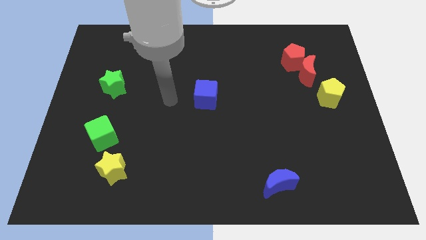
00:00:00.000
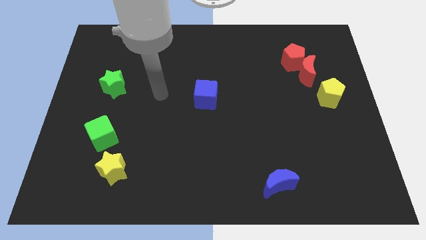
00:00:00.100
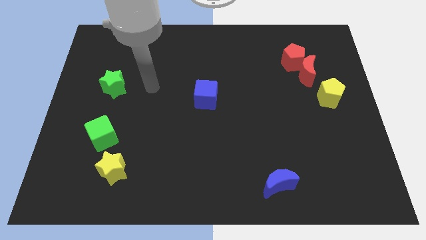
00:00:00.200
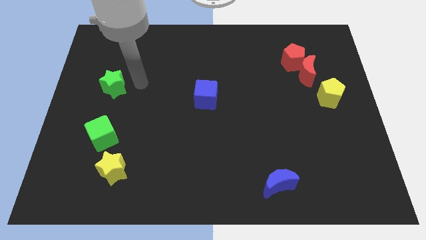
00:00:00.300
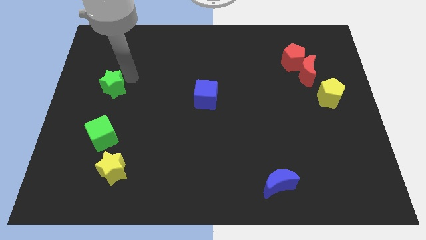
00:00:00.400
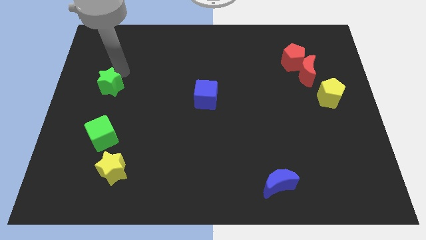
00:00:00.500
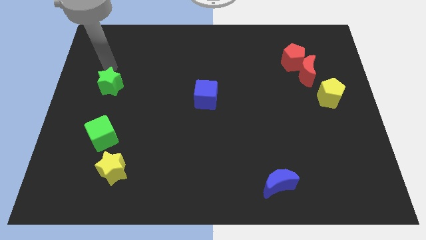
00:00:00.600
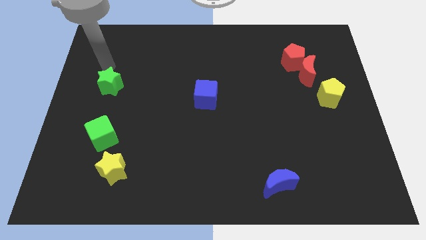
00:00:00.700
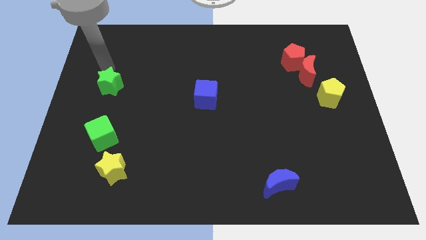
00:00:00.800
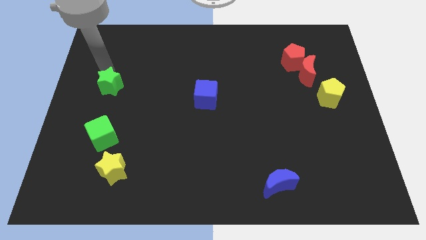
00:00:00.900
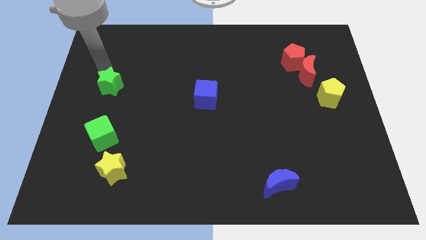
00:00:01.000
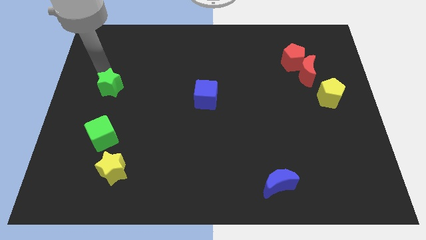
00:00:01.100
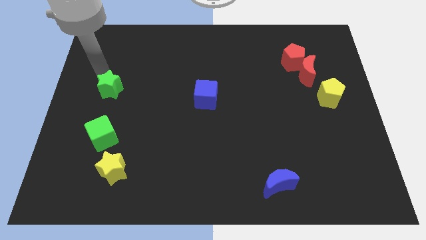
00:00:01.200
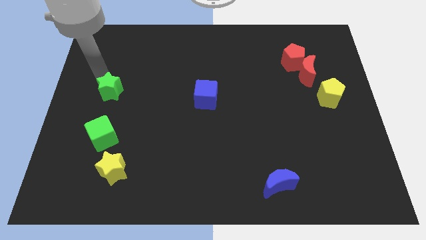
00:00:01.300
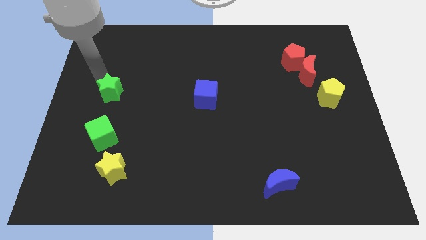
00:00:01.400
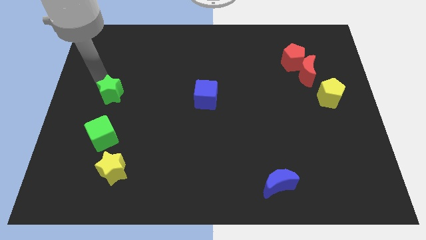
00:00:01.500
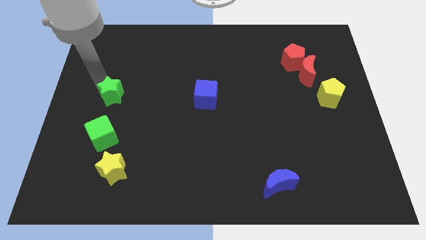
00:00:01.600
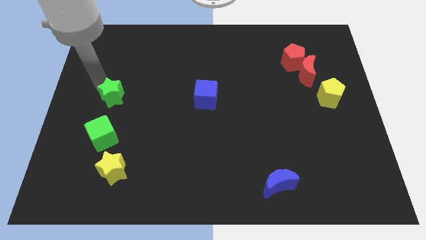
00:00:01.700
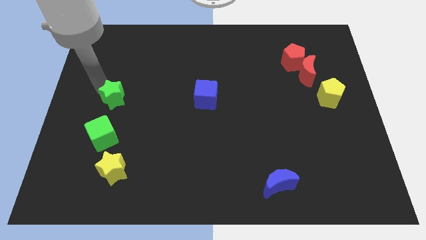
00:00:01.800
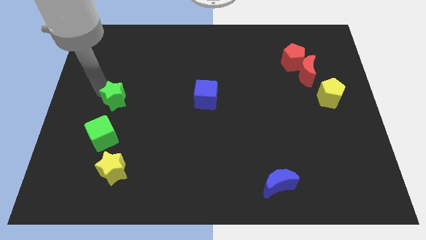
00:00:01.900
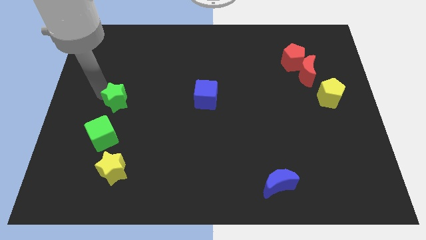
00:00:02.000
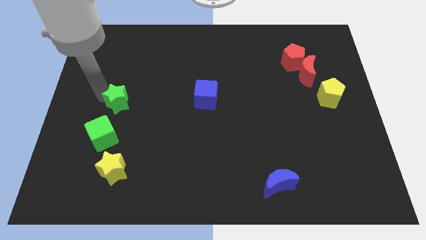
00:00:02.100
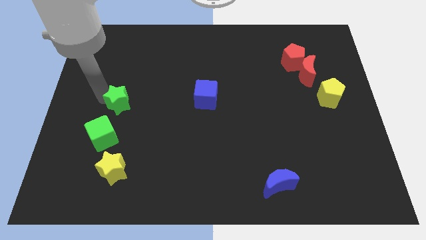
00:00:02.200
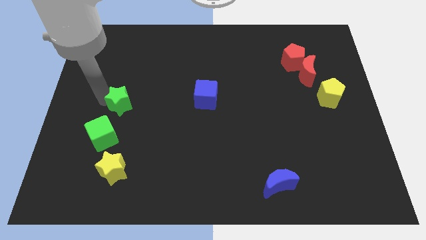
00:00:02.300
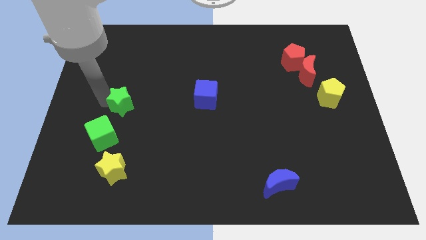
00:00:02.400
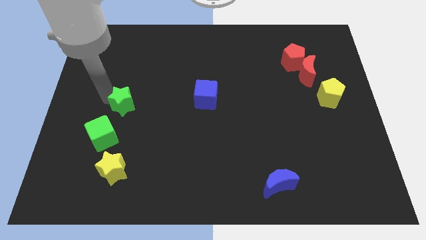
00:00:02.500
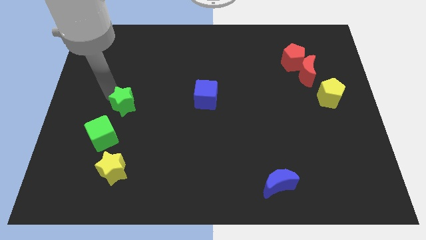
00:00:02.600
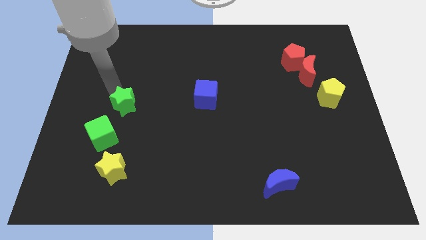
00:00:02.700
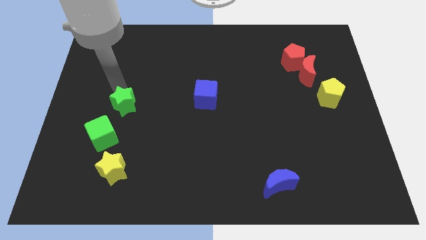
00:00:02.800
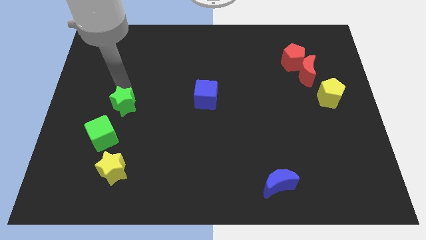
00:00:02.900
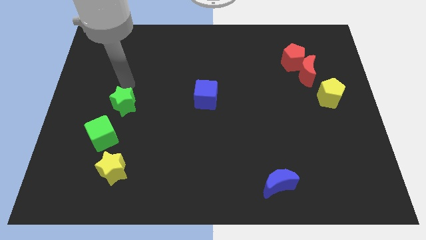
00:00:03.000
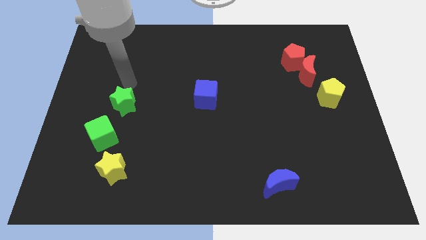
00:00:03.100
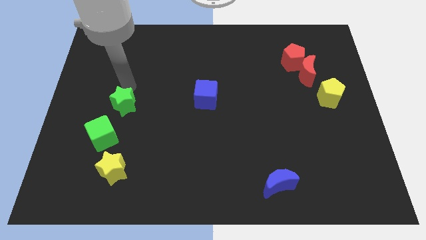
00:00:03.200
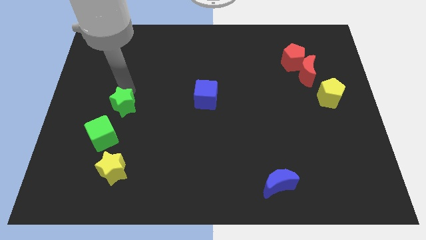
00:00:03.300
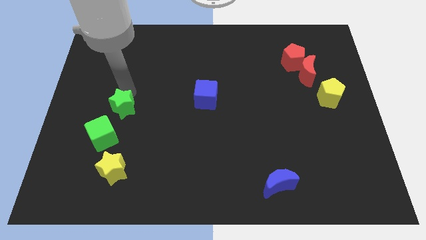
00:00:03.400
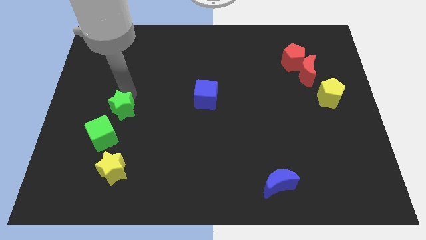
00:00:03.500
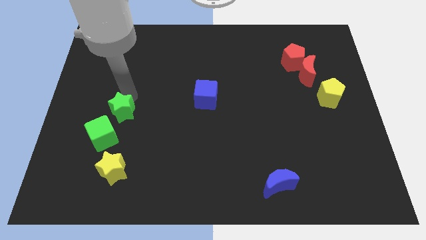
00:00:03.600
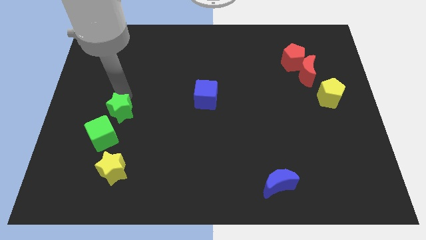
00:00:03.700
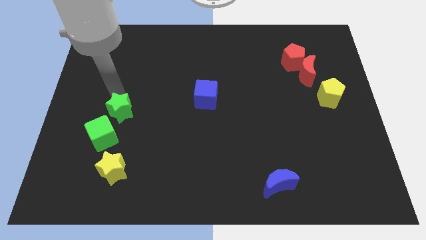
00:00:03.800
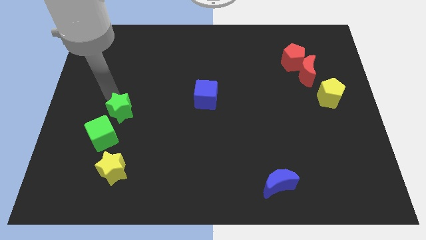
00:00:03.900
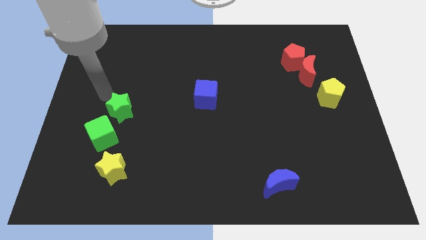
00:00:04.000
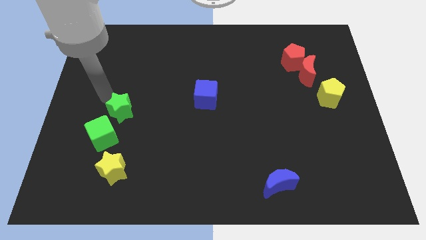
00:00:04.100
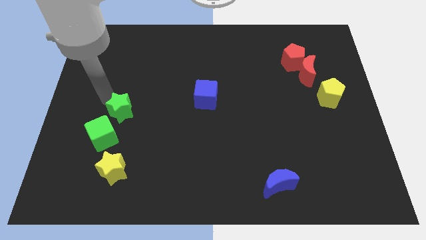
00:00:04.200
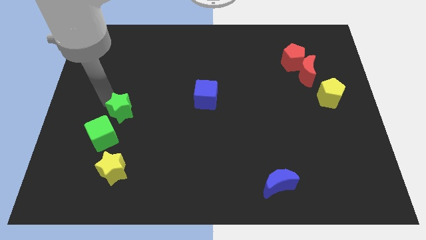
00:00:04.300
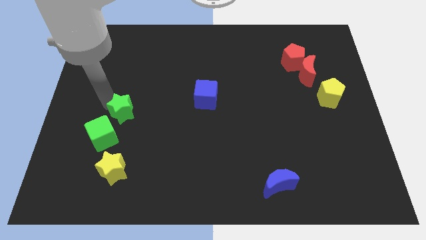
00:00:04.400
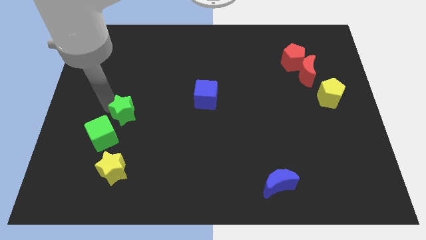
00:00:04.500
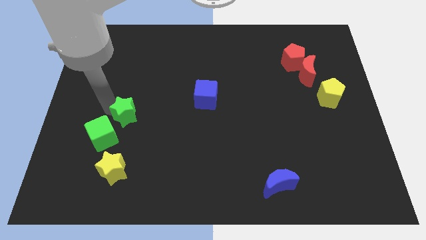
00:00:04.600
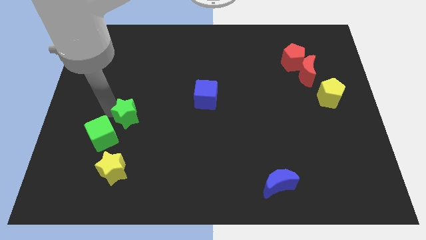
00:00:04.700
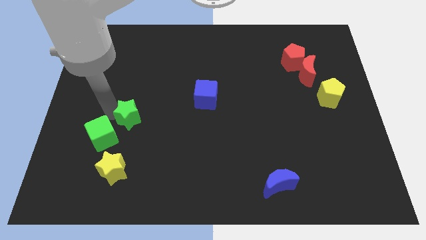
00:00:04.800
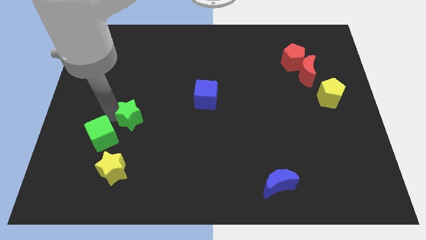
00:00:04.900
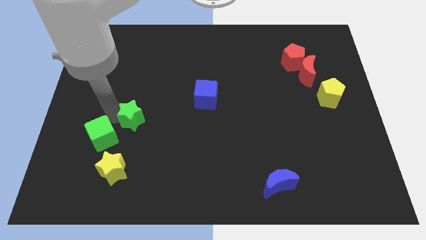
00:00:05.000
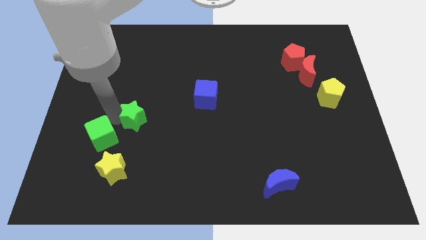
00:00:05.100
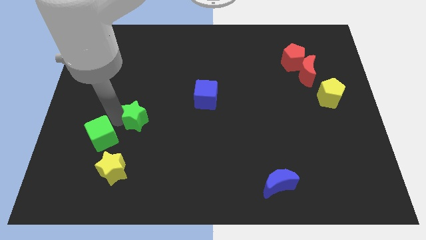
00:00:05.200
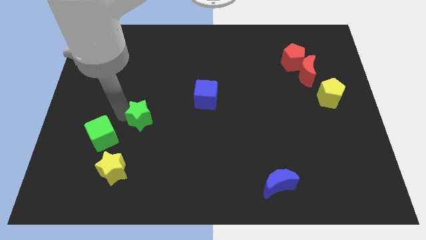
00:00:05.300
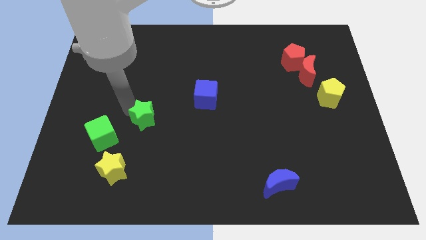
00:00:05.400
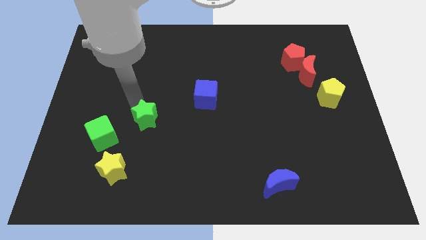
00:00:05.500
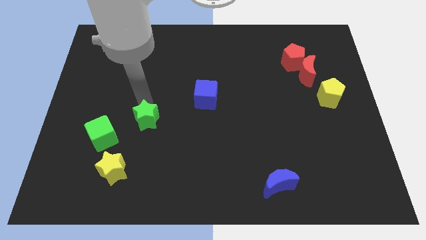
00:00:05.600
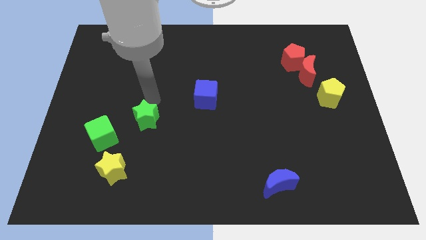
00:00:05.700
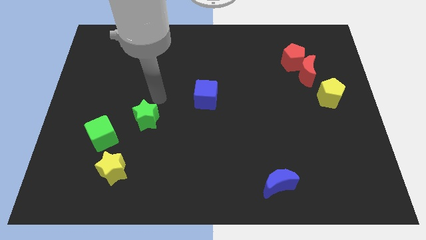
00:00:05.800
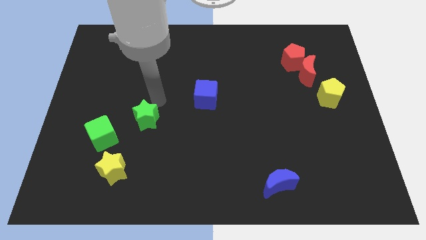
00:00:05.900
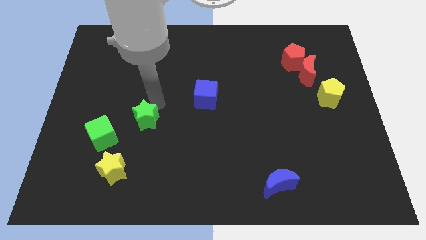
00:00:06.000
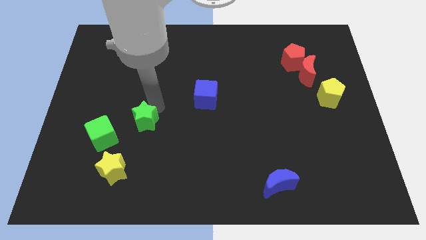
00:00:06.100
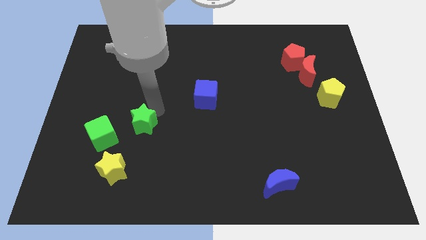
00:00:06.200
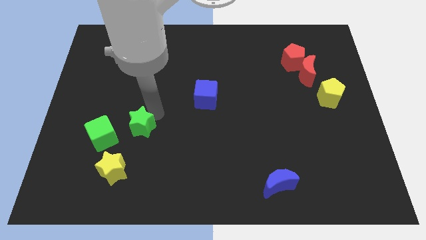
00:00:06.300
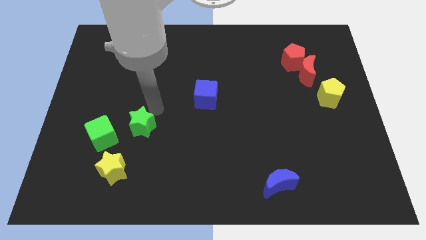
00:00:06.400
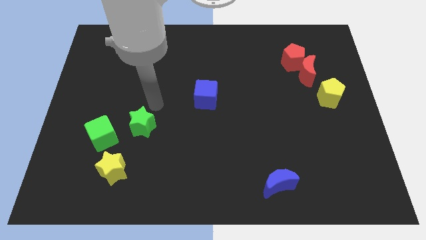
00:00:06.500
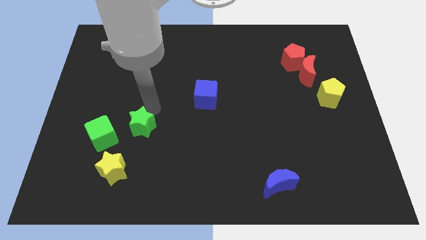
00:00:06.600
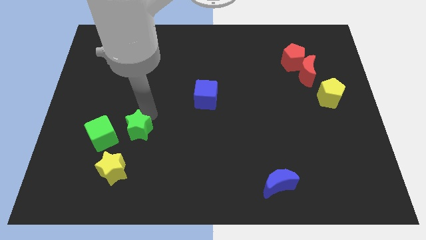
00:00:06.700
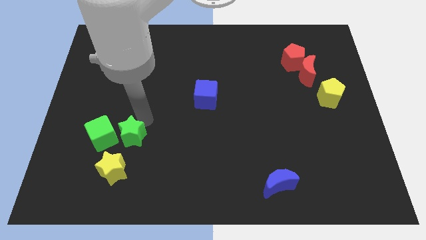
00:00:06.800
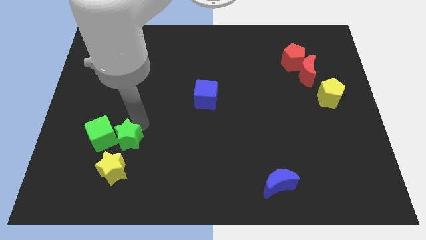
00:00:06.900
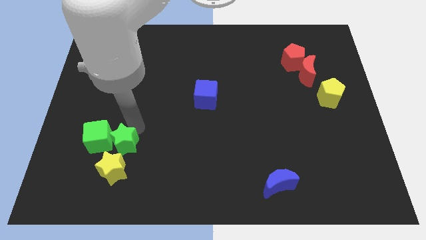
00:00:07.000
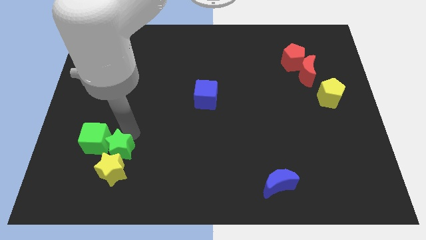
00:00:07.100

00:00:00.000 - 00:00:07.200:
move the green star close to the yellow star

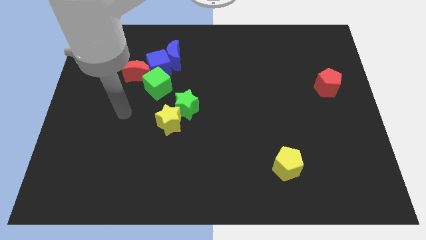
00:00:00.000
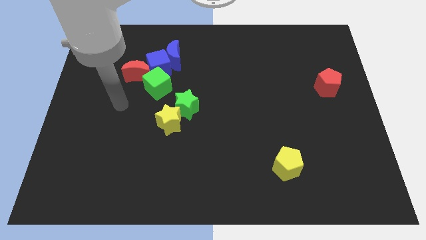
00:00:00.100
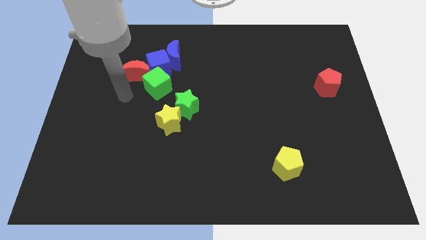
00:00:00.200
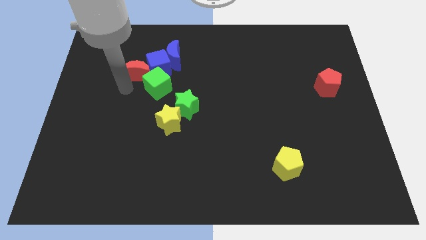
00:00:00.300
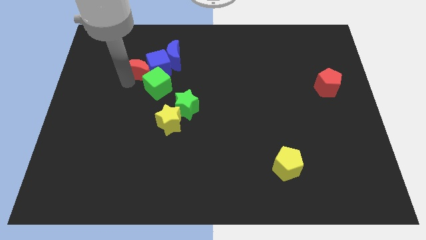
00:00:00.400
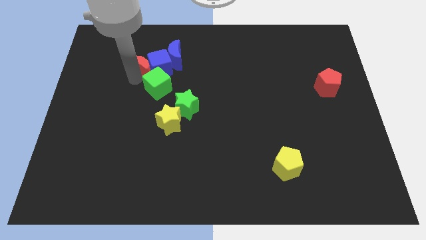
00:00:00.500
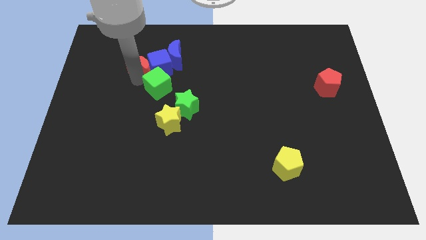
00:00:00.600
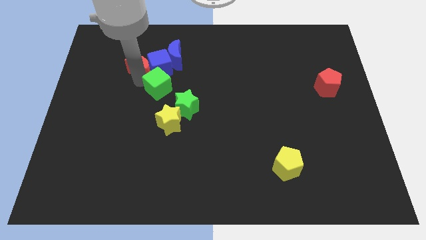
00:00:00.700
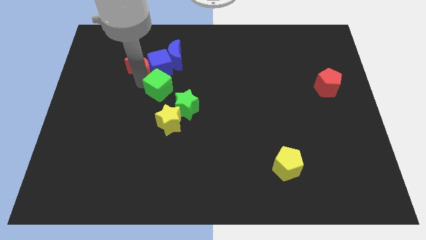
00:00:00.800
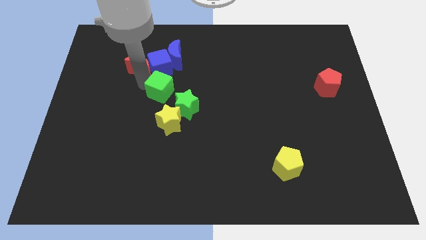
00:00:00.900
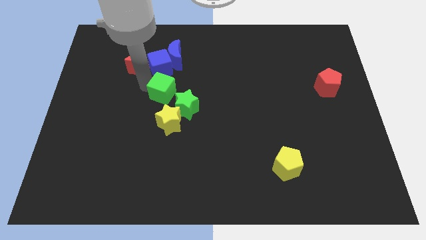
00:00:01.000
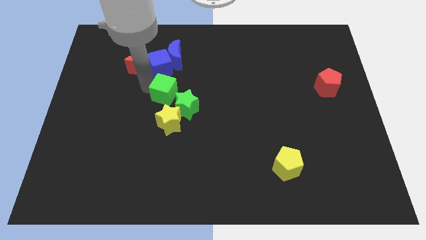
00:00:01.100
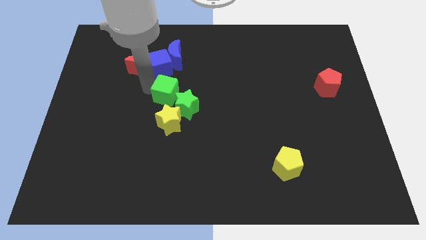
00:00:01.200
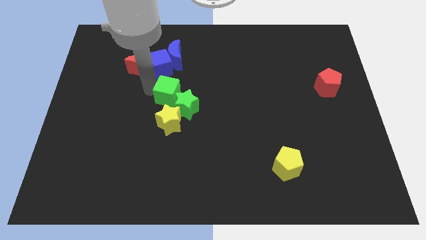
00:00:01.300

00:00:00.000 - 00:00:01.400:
push the green cube to the green star
